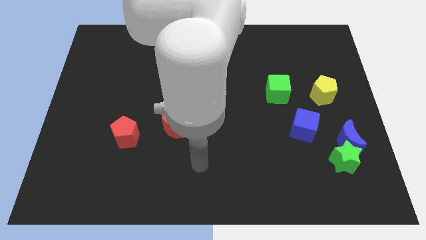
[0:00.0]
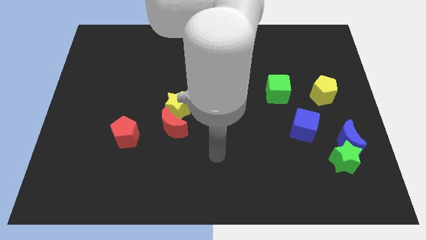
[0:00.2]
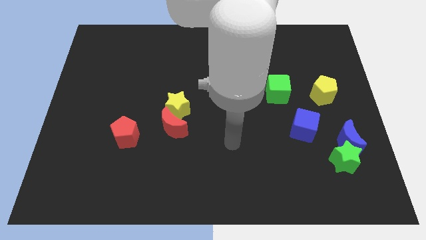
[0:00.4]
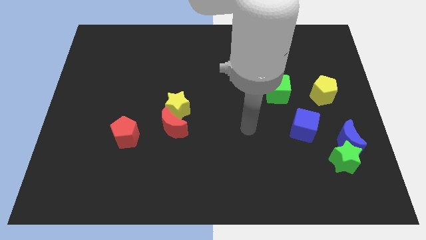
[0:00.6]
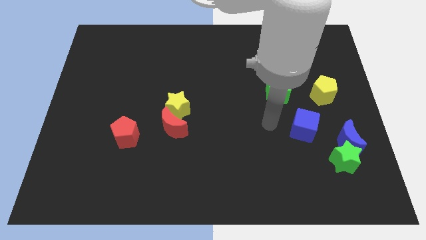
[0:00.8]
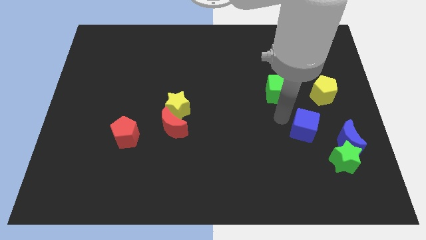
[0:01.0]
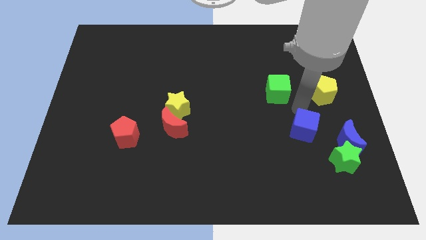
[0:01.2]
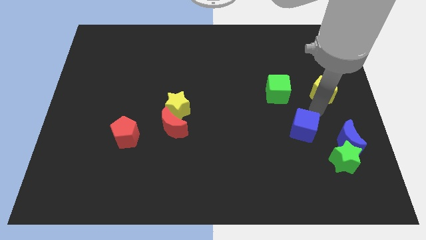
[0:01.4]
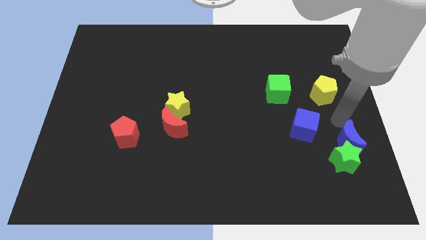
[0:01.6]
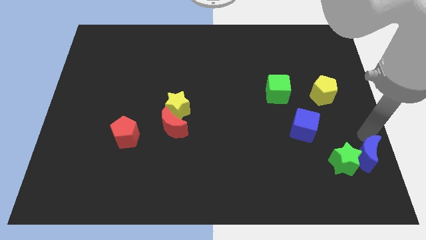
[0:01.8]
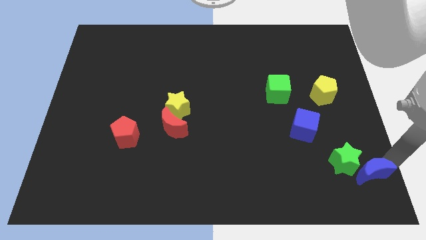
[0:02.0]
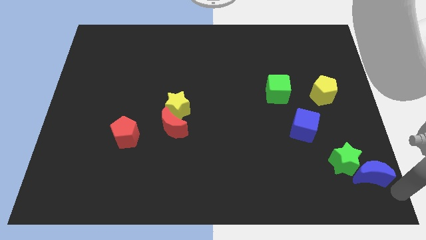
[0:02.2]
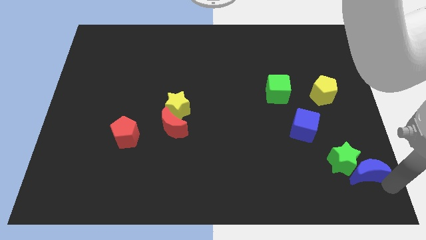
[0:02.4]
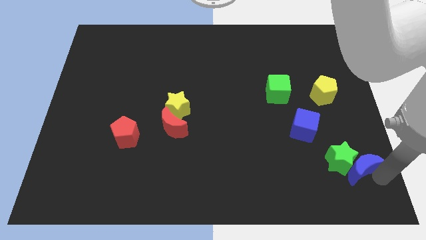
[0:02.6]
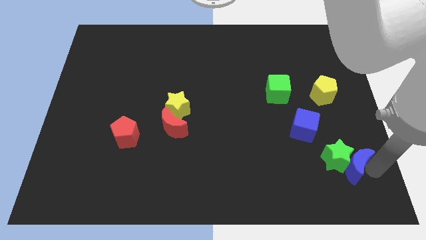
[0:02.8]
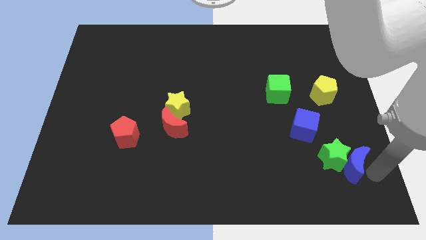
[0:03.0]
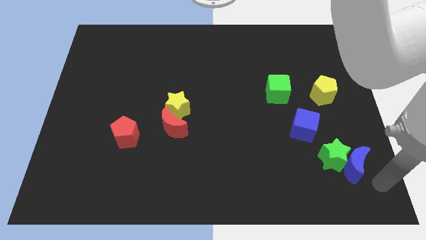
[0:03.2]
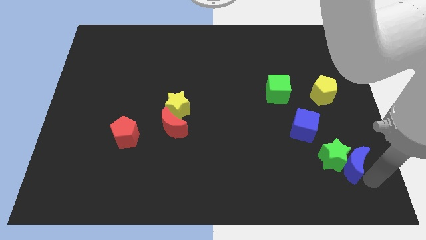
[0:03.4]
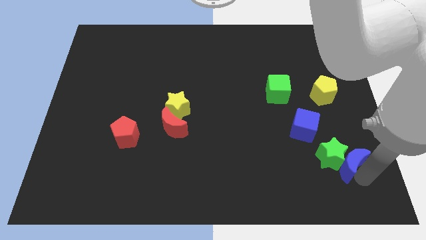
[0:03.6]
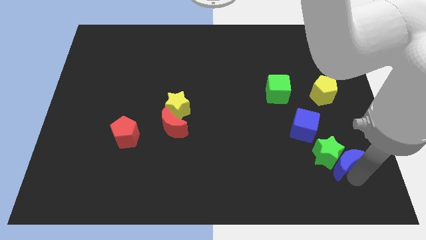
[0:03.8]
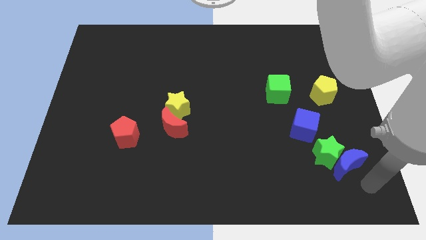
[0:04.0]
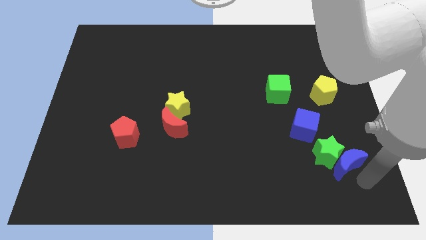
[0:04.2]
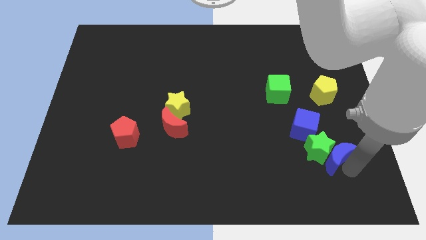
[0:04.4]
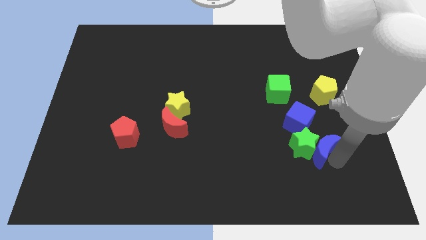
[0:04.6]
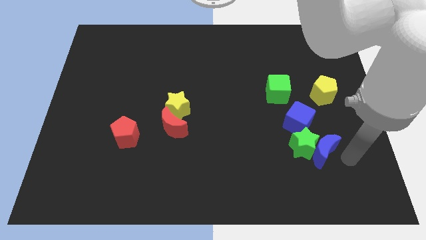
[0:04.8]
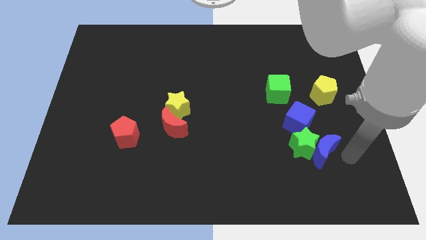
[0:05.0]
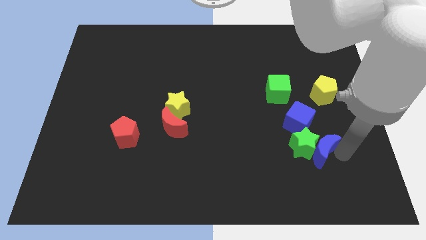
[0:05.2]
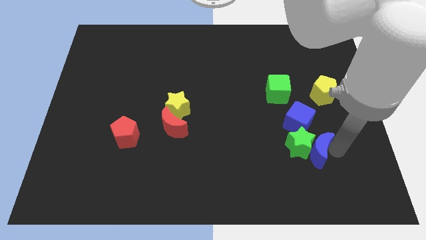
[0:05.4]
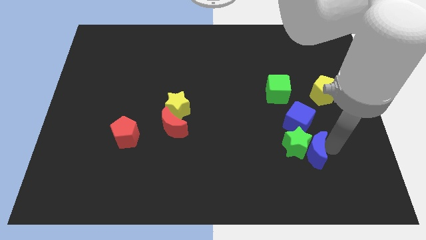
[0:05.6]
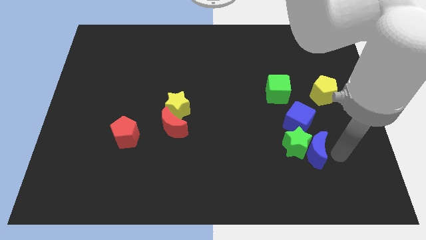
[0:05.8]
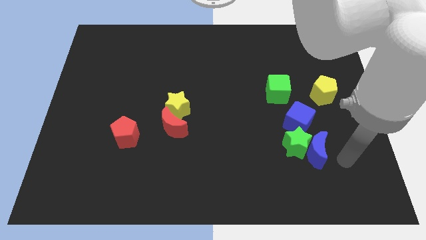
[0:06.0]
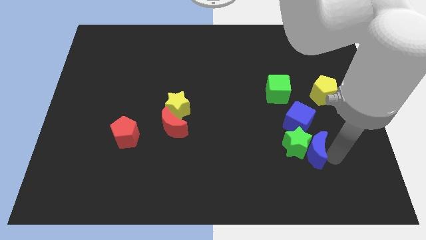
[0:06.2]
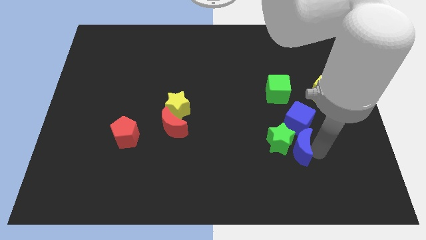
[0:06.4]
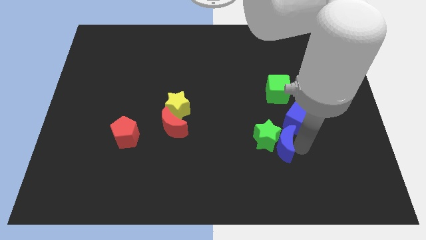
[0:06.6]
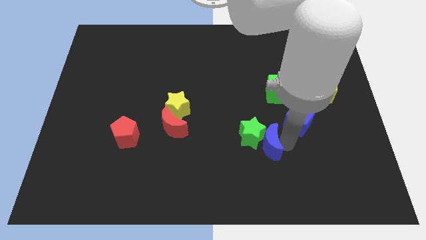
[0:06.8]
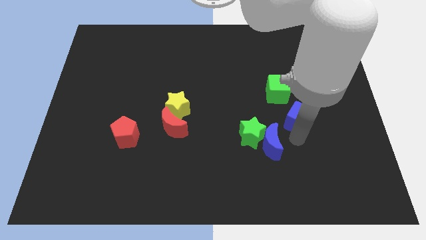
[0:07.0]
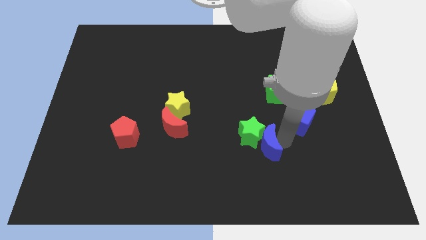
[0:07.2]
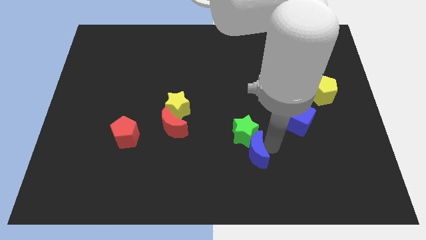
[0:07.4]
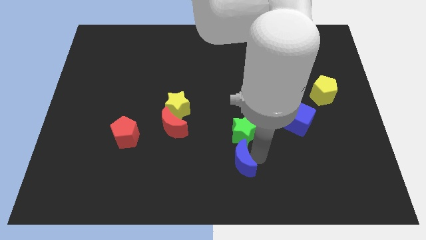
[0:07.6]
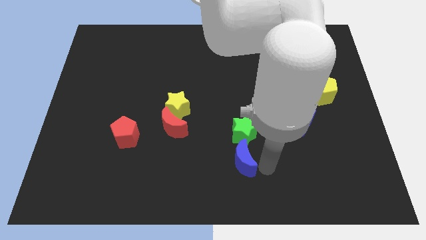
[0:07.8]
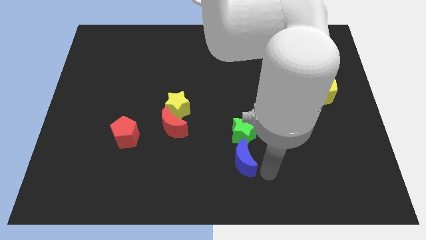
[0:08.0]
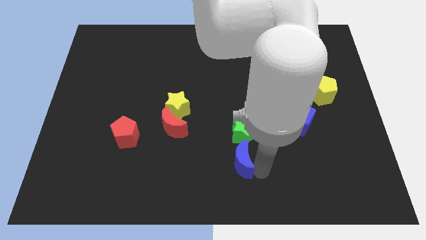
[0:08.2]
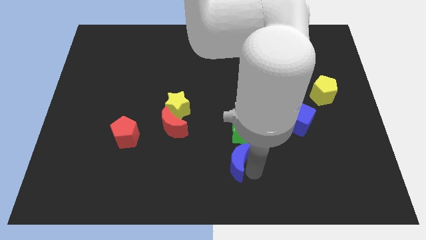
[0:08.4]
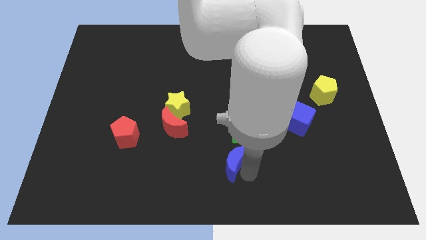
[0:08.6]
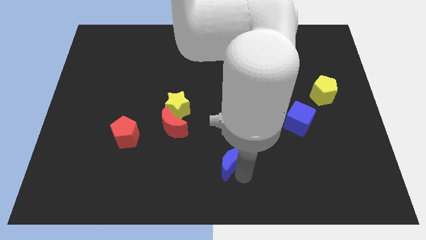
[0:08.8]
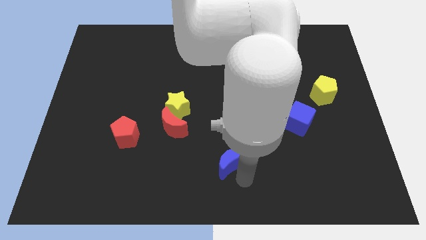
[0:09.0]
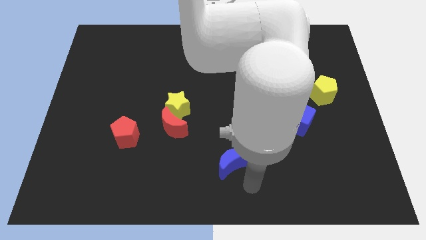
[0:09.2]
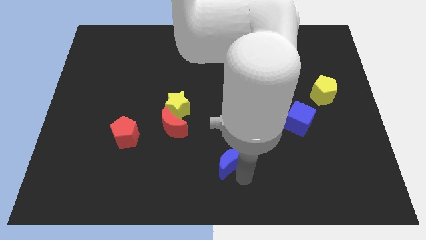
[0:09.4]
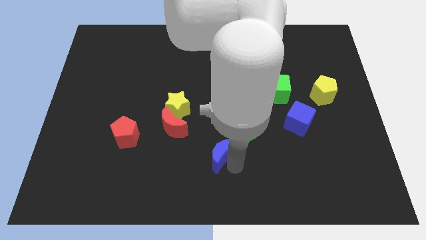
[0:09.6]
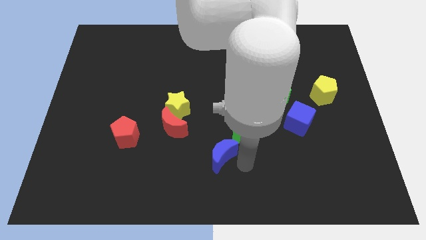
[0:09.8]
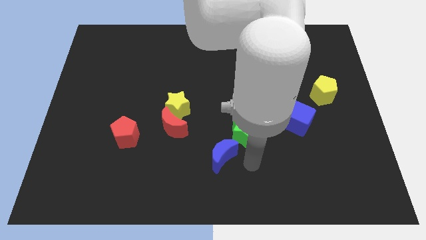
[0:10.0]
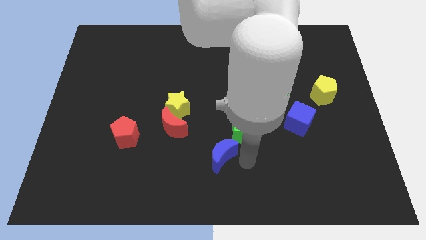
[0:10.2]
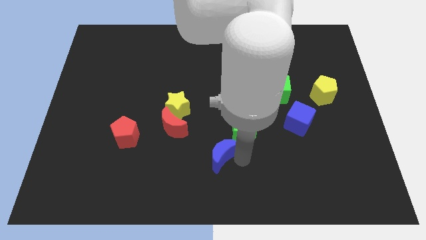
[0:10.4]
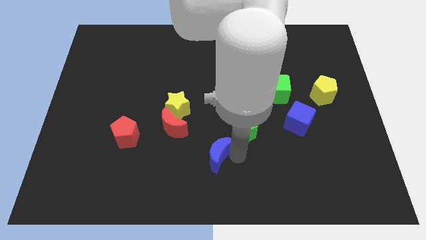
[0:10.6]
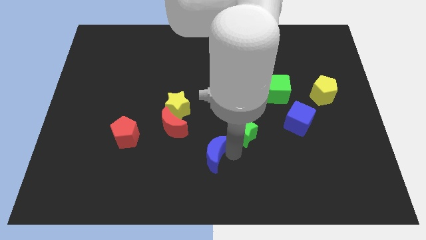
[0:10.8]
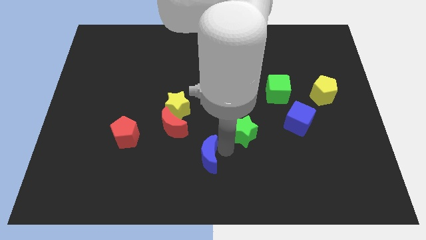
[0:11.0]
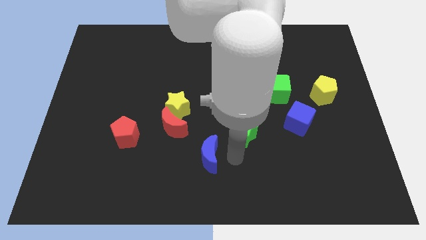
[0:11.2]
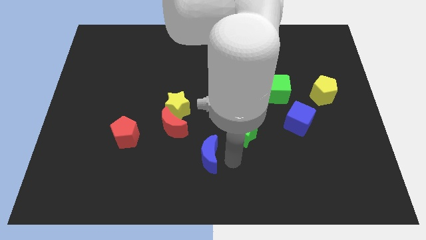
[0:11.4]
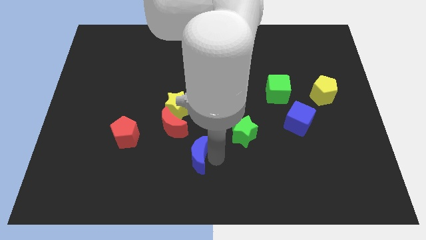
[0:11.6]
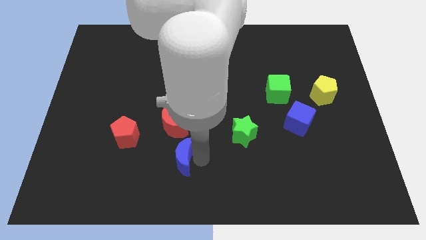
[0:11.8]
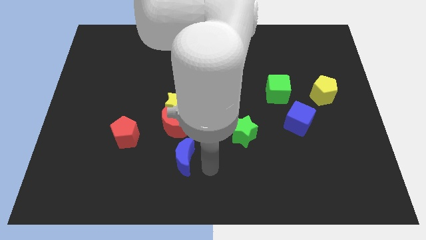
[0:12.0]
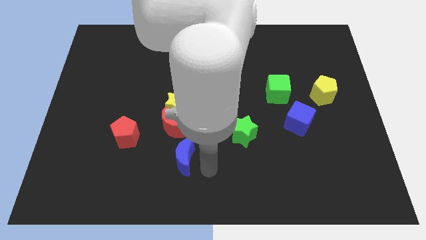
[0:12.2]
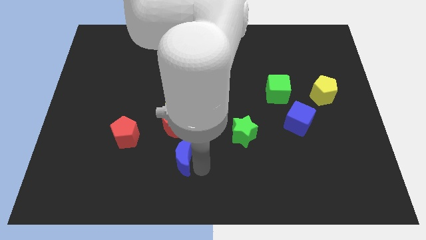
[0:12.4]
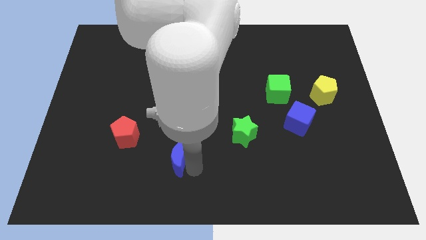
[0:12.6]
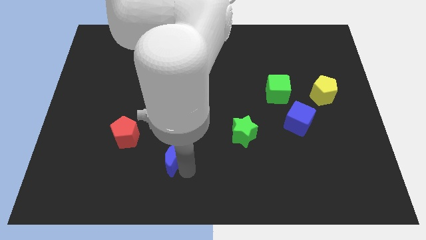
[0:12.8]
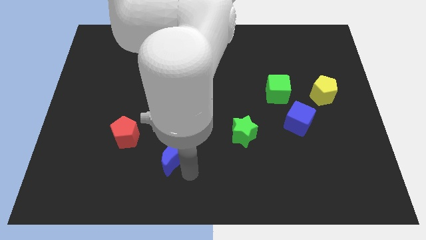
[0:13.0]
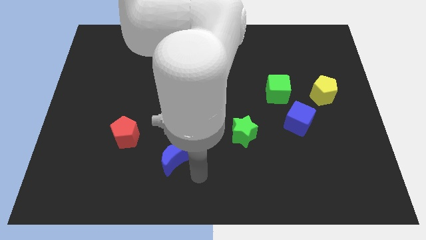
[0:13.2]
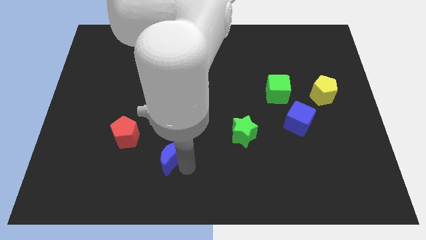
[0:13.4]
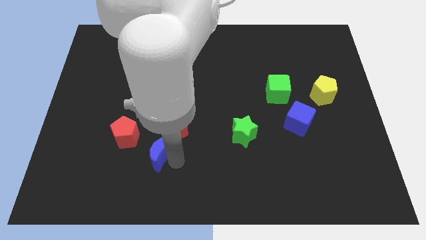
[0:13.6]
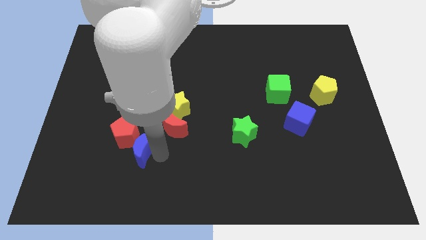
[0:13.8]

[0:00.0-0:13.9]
slide the blue moon next to the red pentagon
